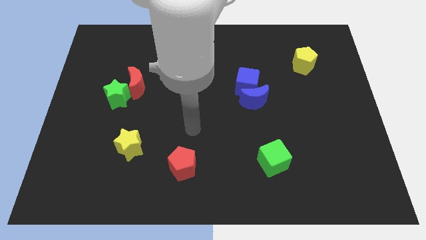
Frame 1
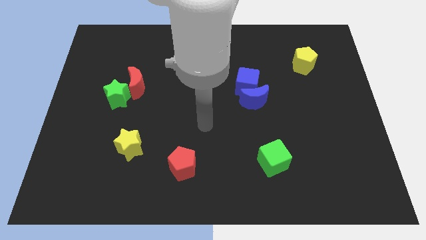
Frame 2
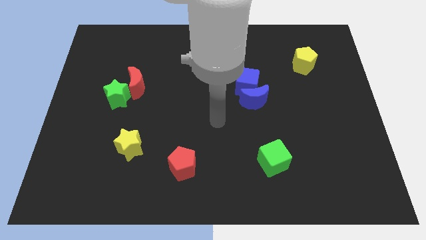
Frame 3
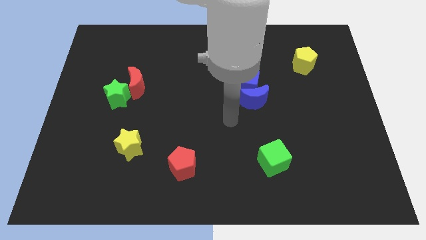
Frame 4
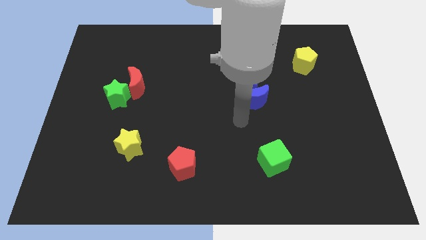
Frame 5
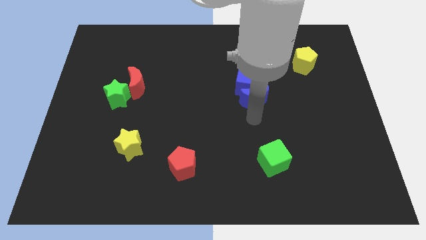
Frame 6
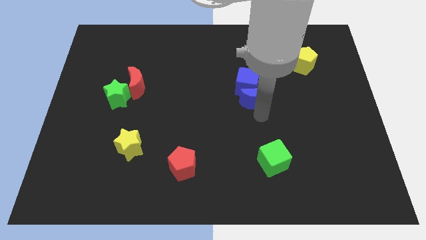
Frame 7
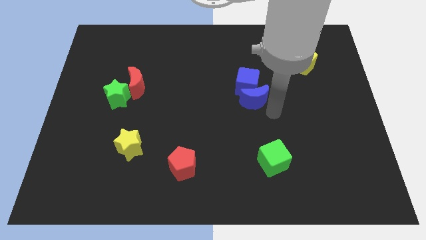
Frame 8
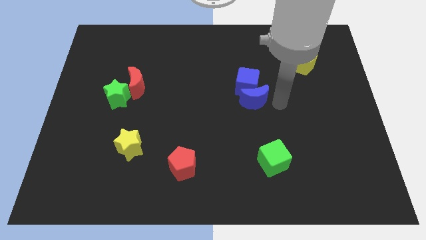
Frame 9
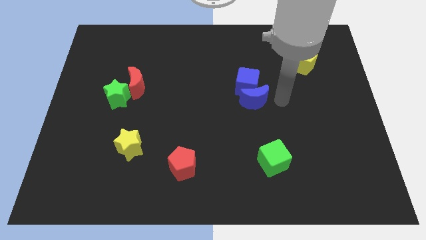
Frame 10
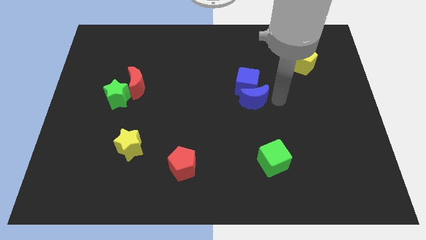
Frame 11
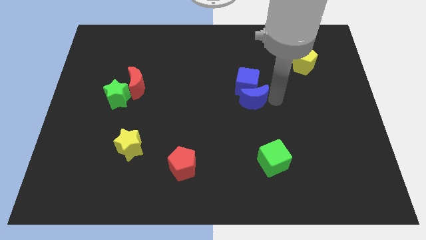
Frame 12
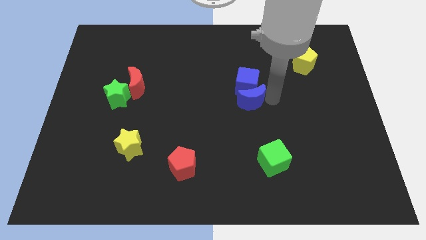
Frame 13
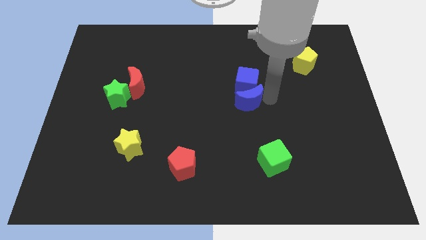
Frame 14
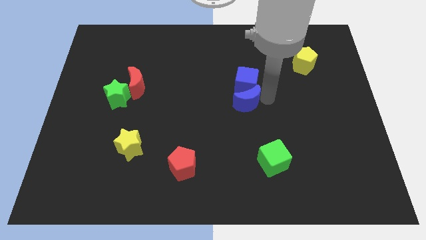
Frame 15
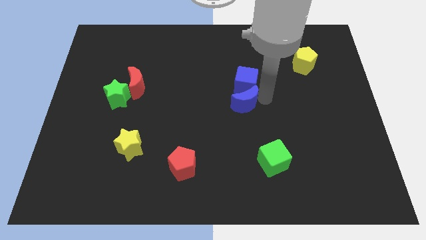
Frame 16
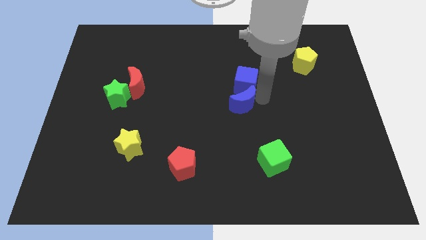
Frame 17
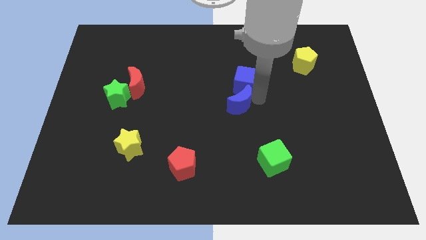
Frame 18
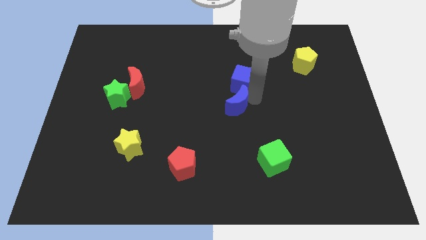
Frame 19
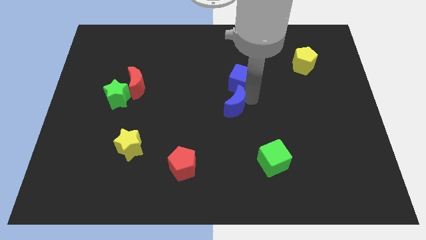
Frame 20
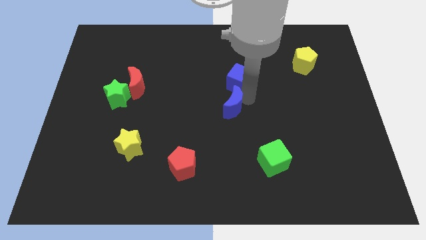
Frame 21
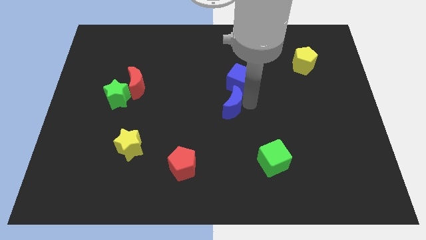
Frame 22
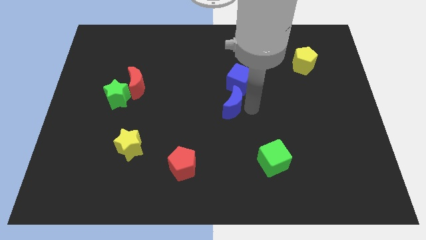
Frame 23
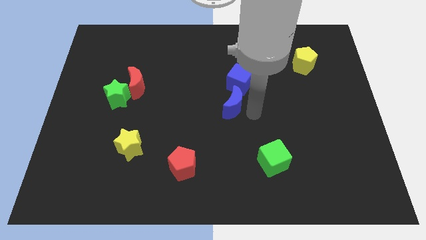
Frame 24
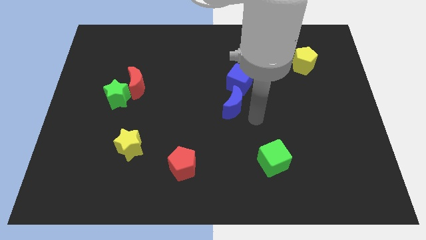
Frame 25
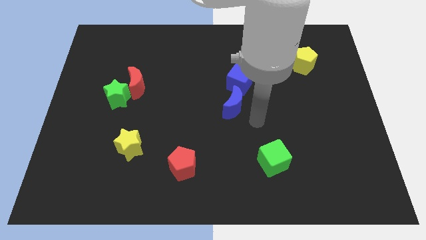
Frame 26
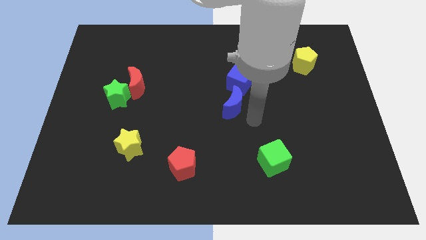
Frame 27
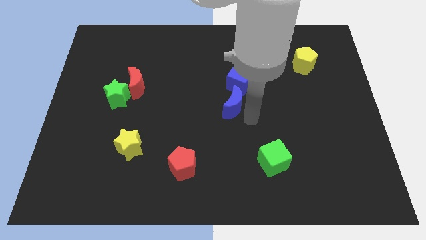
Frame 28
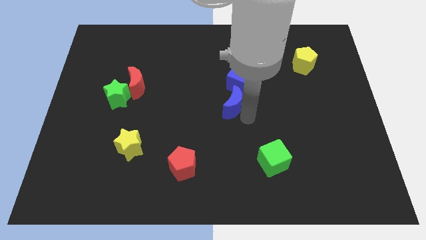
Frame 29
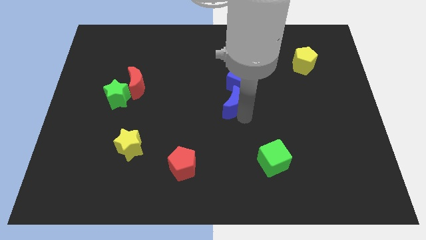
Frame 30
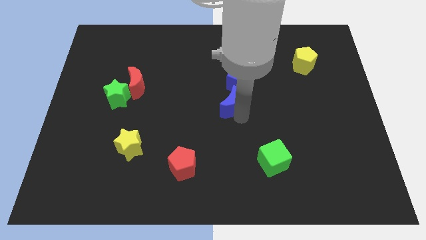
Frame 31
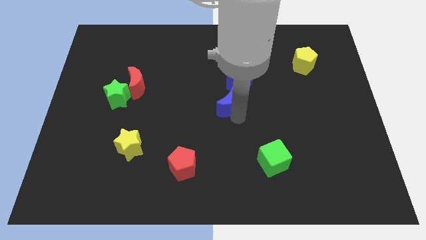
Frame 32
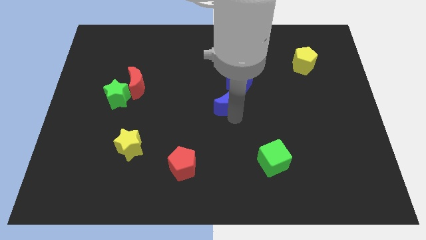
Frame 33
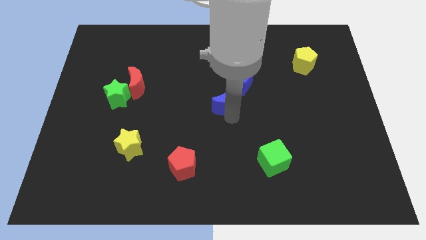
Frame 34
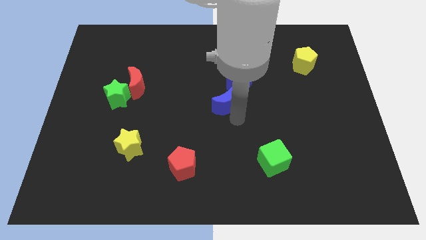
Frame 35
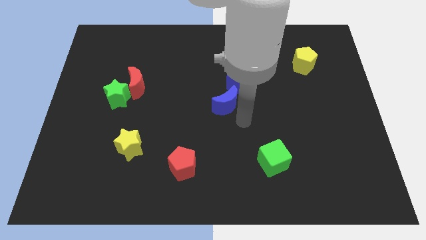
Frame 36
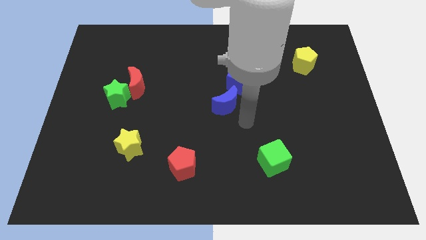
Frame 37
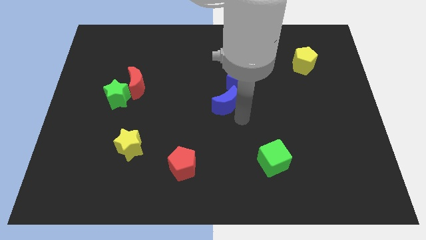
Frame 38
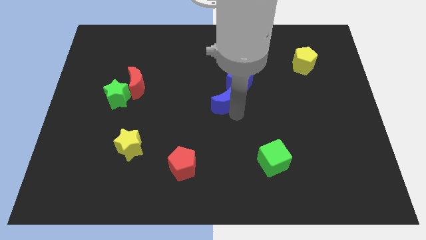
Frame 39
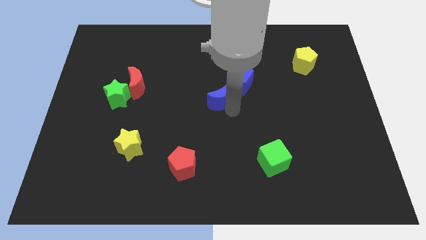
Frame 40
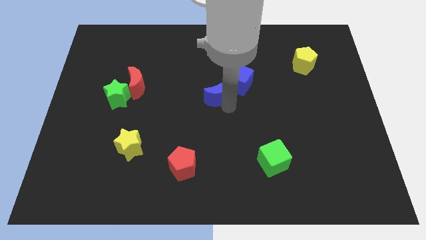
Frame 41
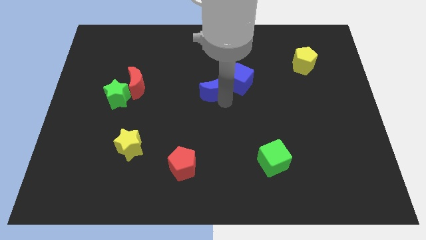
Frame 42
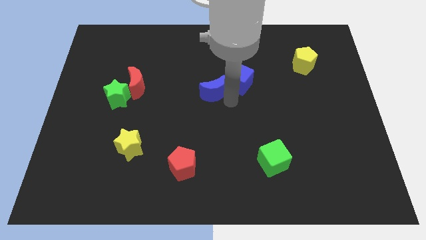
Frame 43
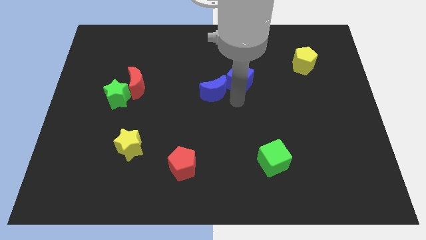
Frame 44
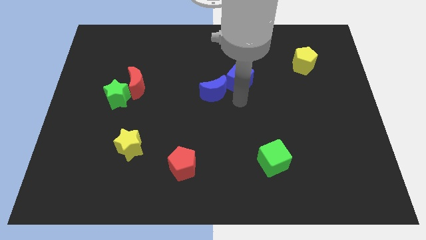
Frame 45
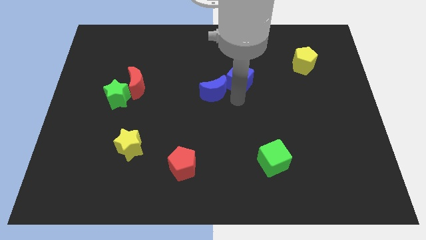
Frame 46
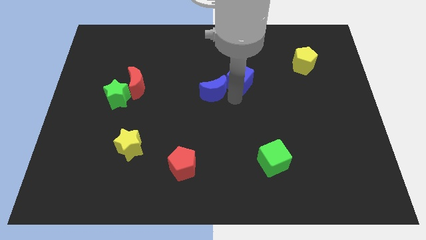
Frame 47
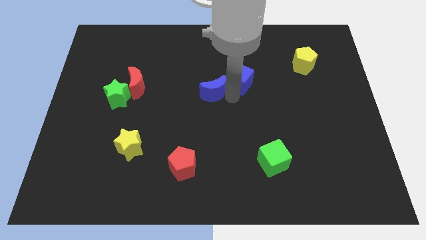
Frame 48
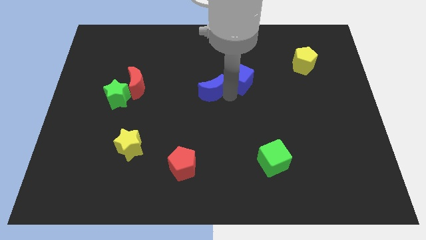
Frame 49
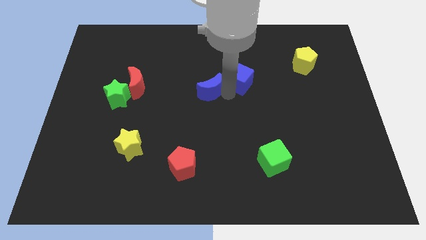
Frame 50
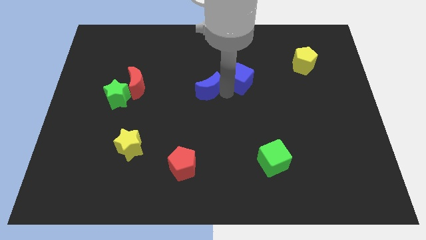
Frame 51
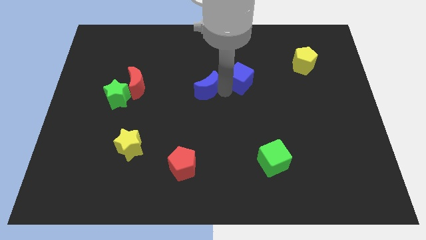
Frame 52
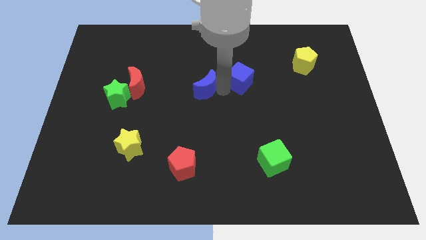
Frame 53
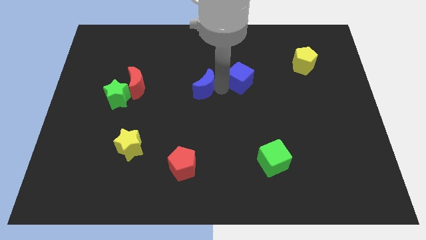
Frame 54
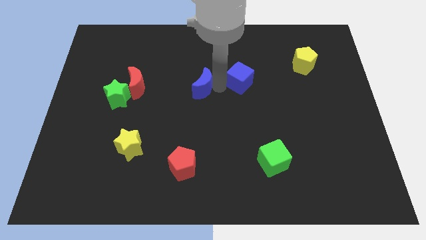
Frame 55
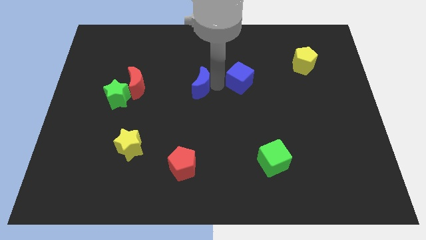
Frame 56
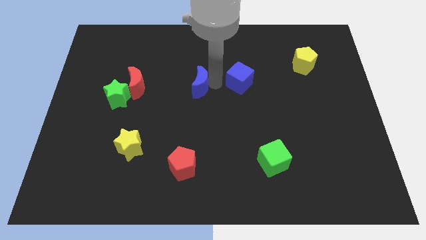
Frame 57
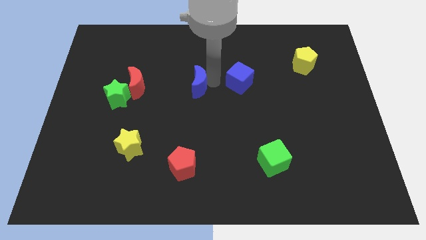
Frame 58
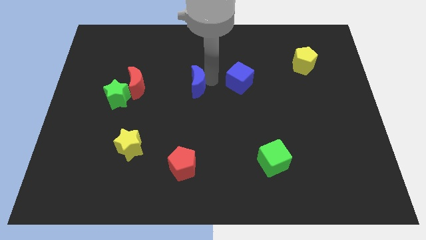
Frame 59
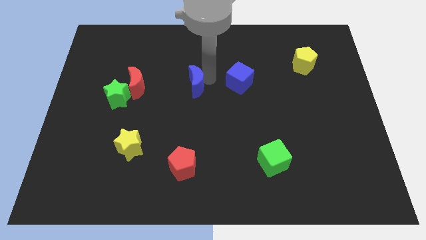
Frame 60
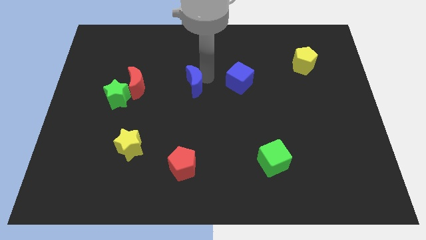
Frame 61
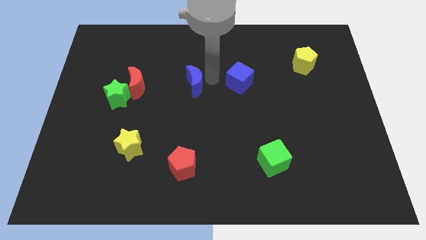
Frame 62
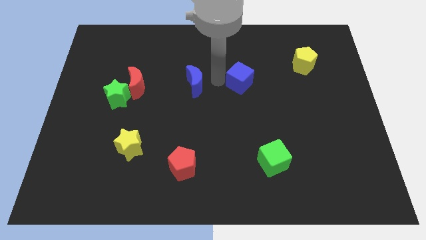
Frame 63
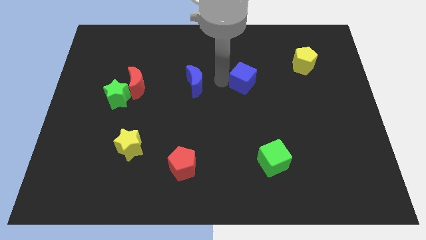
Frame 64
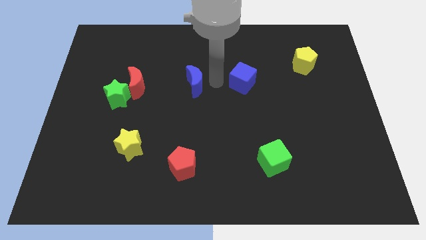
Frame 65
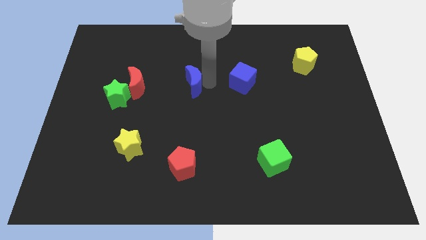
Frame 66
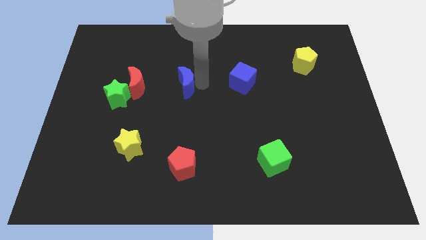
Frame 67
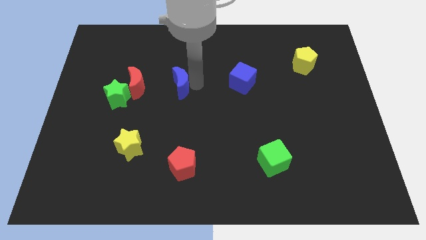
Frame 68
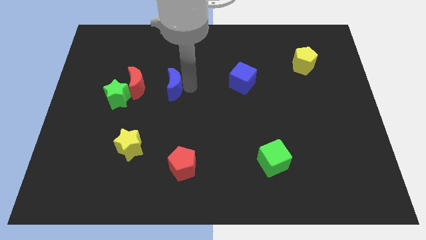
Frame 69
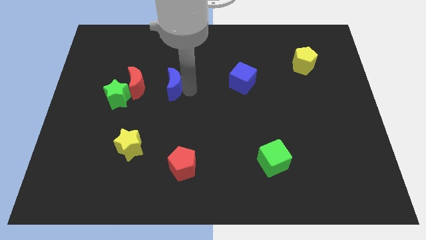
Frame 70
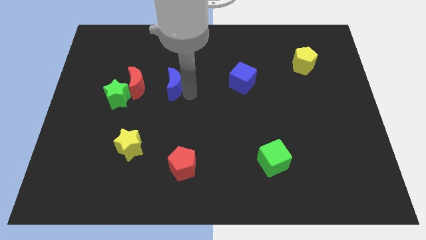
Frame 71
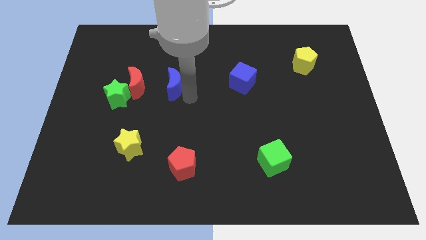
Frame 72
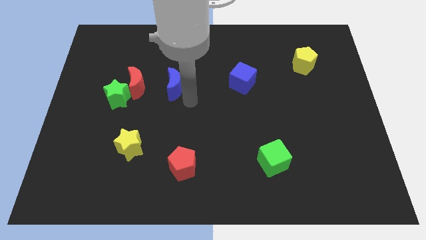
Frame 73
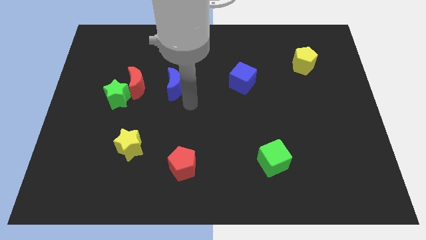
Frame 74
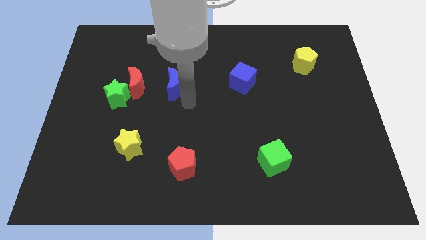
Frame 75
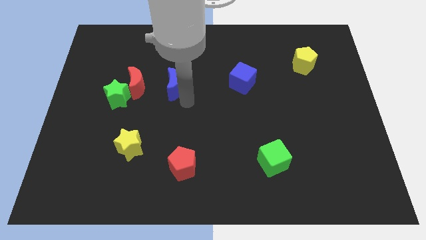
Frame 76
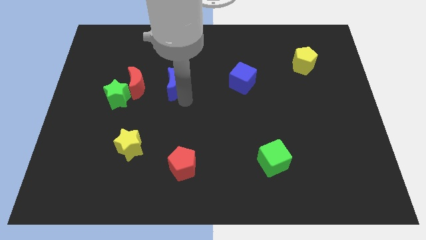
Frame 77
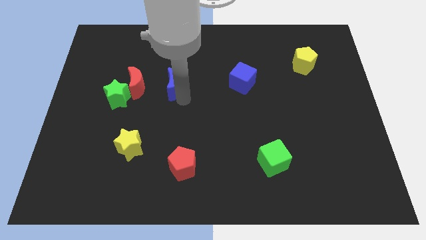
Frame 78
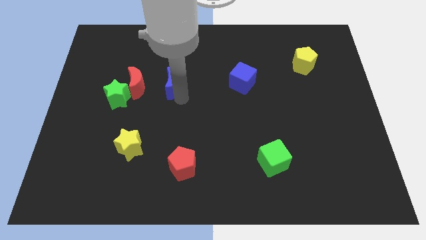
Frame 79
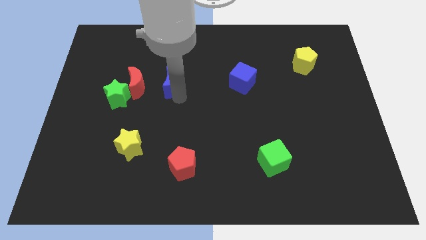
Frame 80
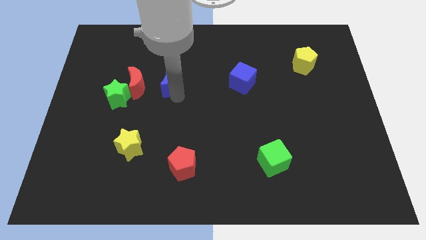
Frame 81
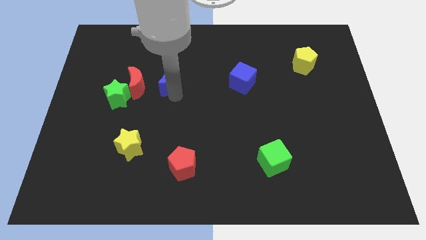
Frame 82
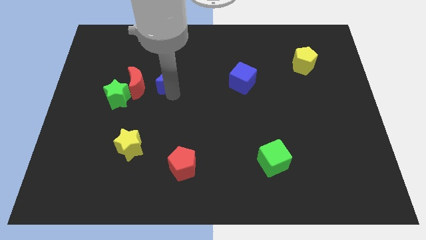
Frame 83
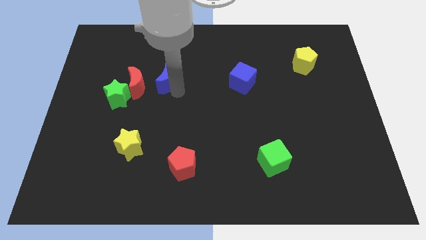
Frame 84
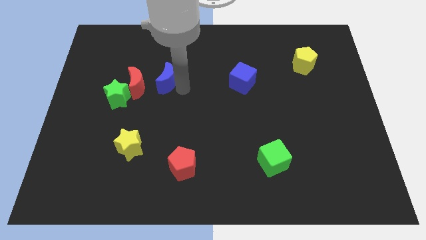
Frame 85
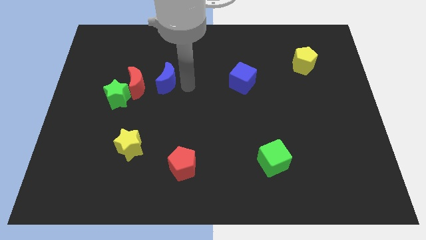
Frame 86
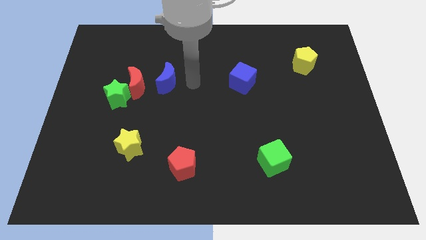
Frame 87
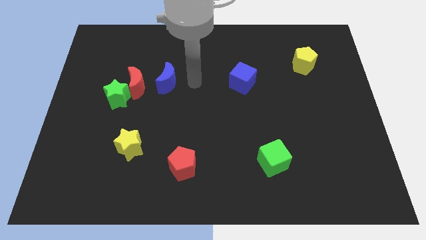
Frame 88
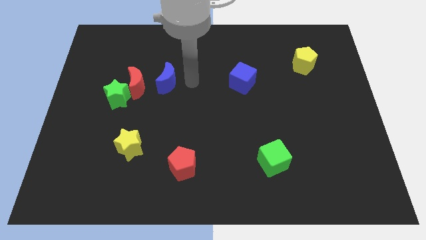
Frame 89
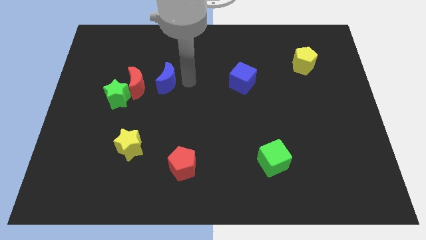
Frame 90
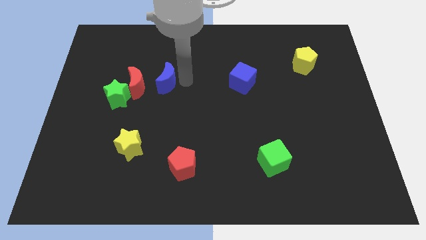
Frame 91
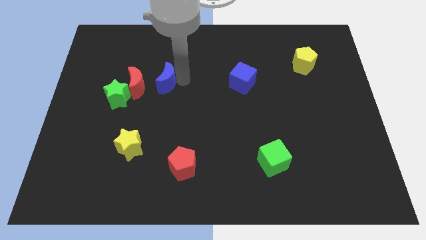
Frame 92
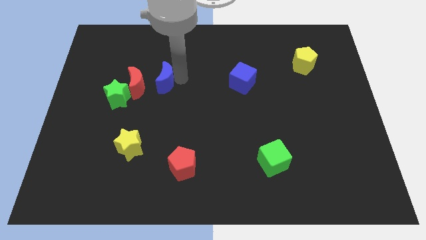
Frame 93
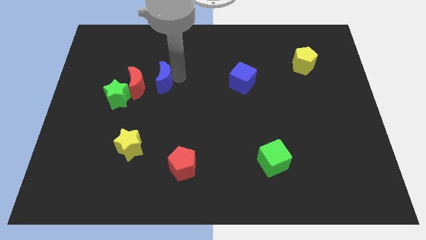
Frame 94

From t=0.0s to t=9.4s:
move the blue moon to the top right side of the green star
